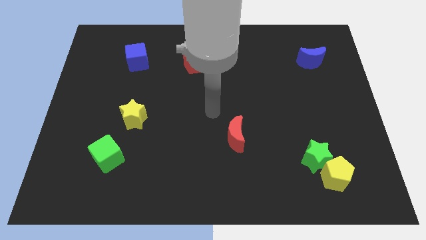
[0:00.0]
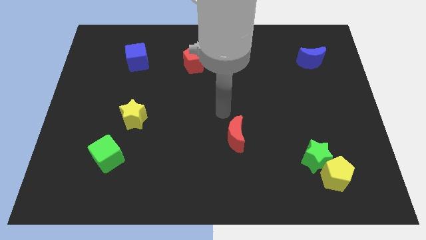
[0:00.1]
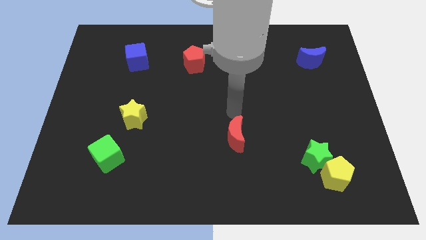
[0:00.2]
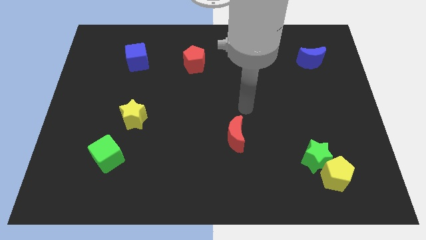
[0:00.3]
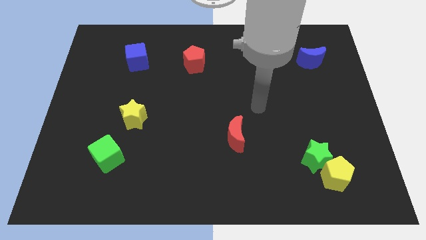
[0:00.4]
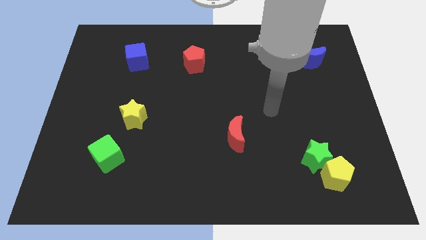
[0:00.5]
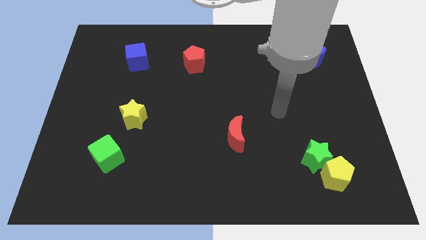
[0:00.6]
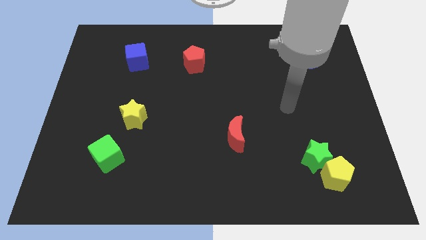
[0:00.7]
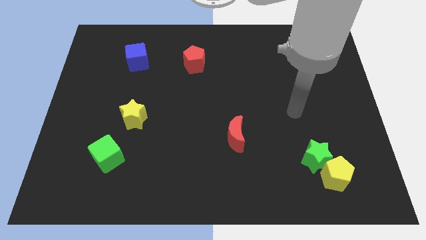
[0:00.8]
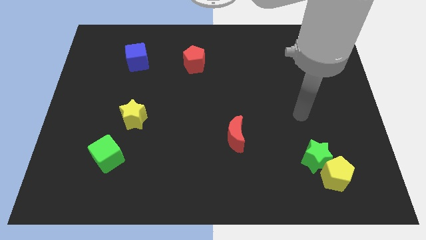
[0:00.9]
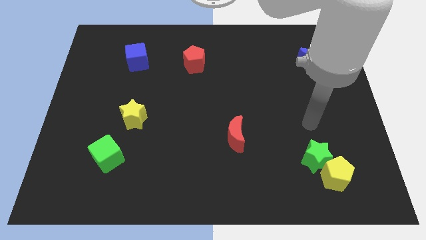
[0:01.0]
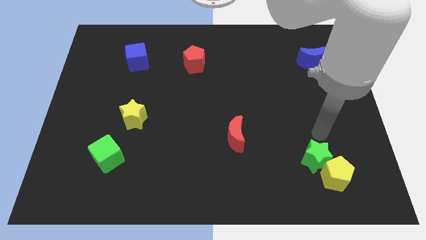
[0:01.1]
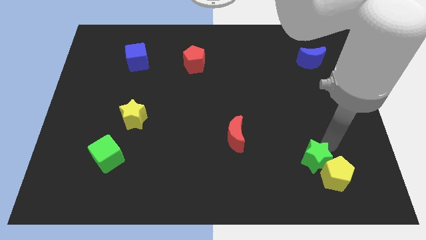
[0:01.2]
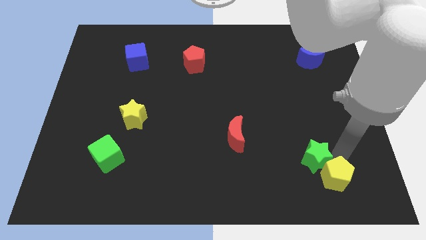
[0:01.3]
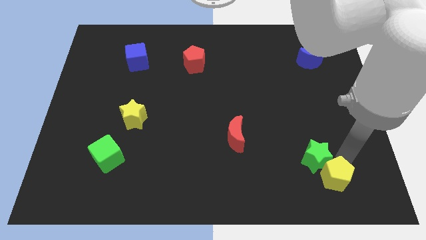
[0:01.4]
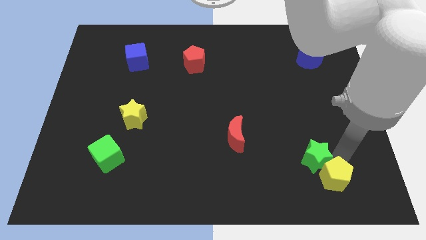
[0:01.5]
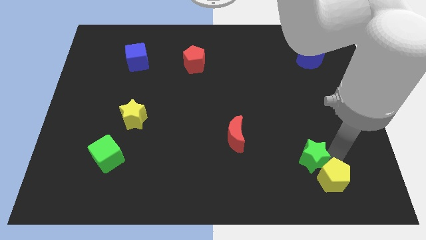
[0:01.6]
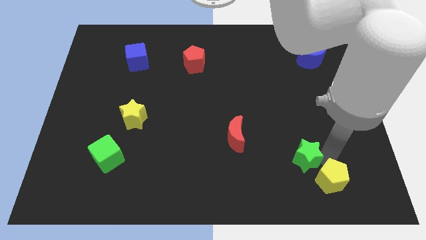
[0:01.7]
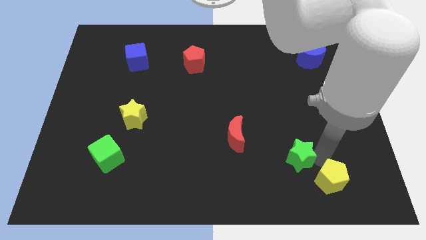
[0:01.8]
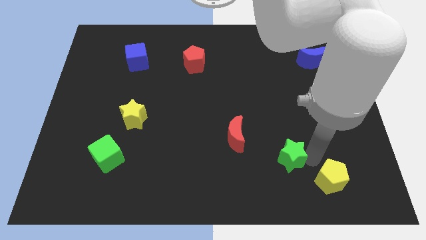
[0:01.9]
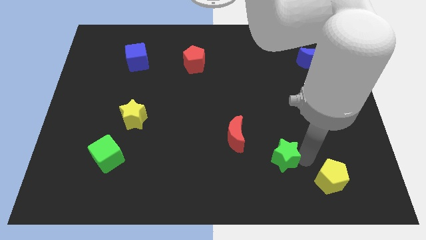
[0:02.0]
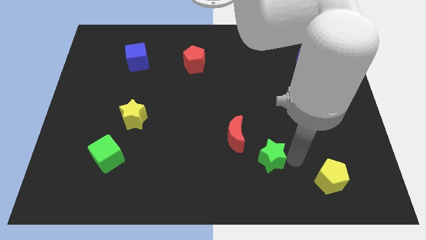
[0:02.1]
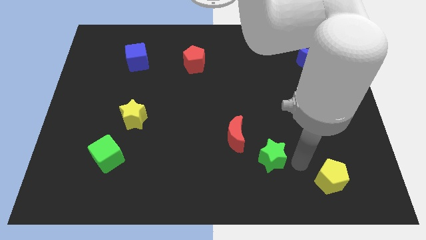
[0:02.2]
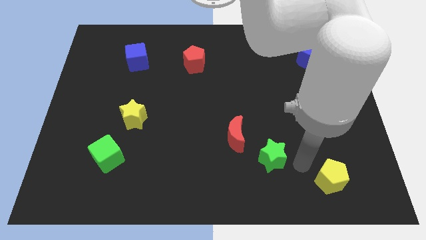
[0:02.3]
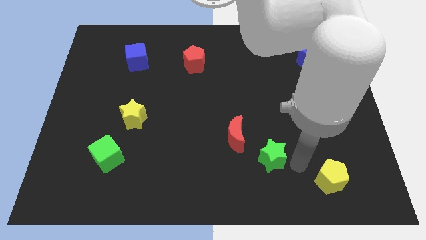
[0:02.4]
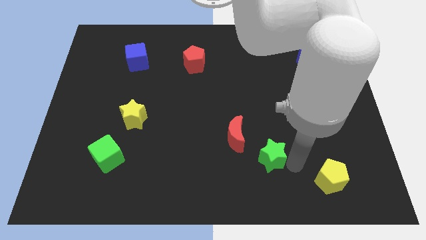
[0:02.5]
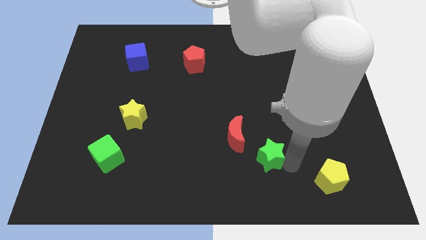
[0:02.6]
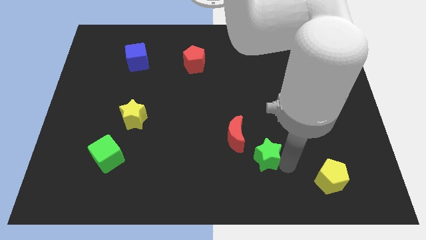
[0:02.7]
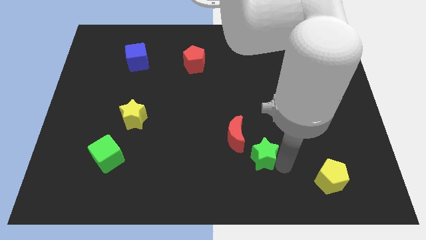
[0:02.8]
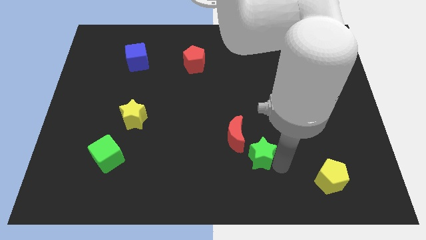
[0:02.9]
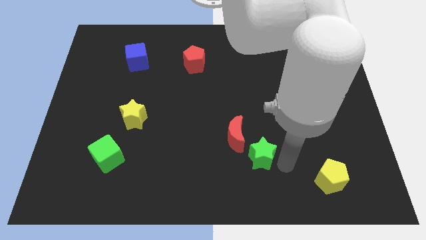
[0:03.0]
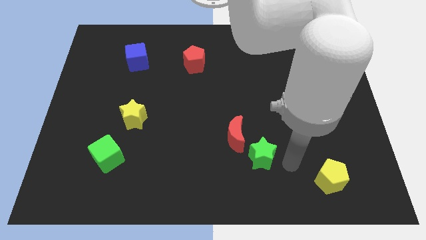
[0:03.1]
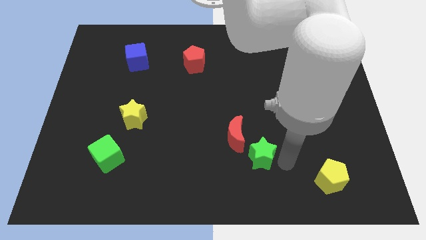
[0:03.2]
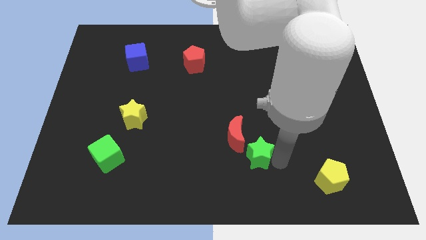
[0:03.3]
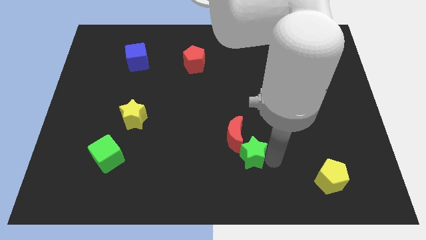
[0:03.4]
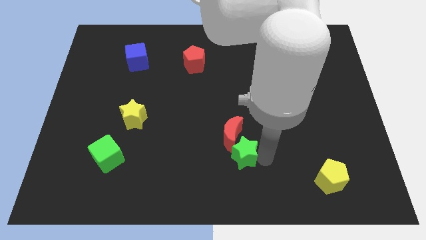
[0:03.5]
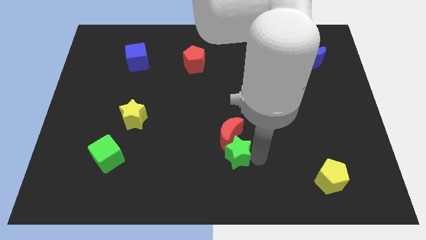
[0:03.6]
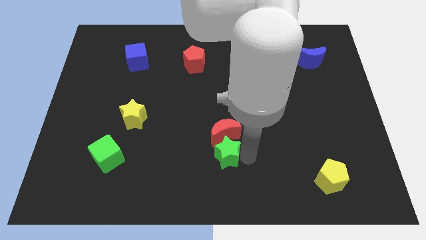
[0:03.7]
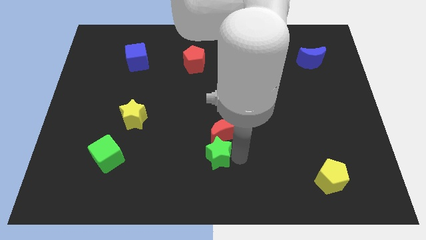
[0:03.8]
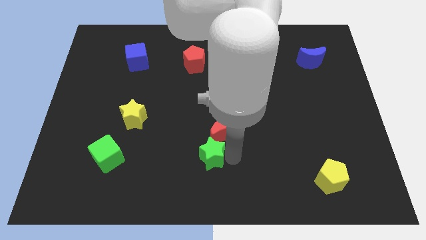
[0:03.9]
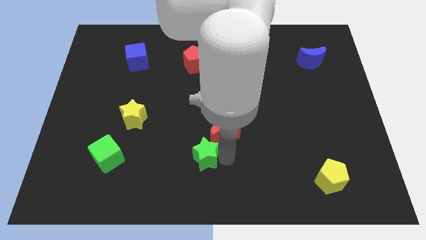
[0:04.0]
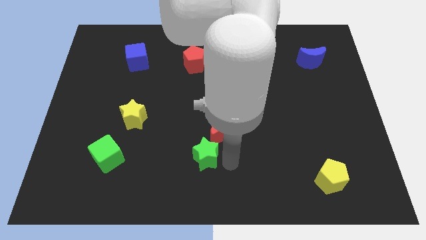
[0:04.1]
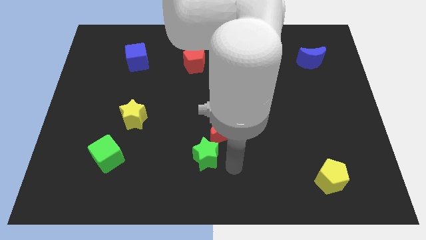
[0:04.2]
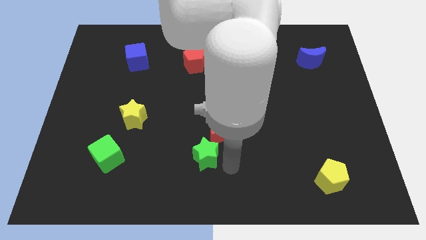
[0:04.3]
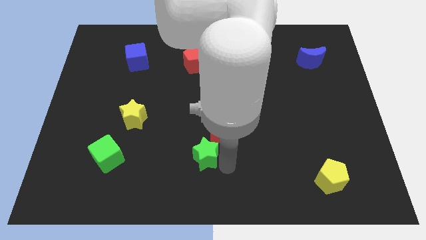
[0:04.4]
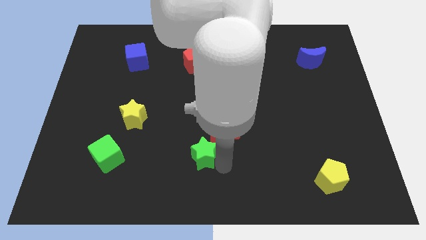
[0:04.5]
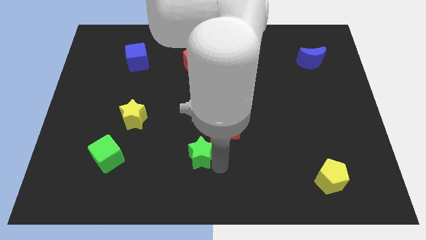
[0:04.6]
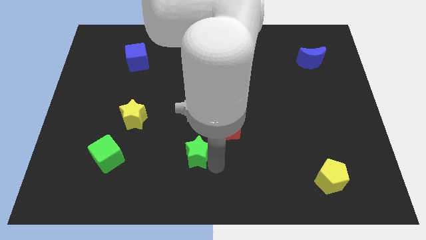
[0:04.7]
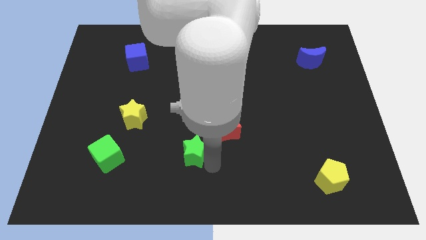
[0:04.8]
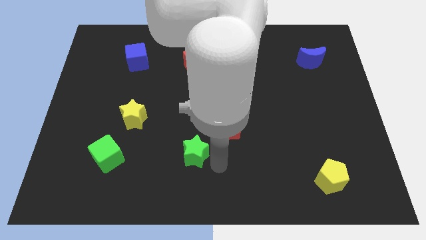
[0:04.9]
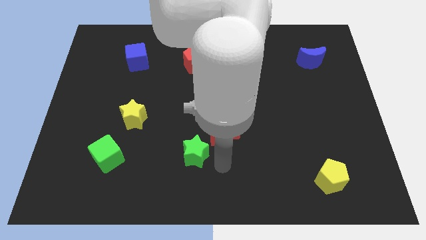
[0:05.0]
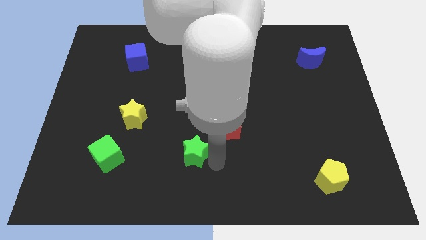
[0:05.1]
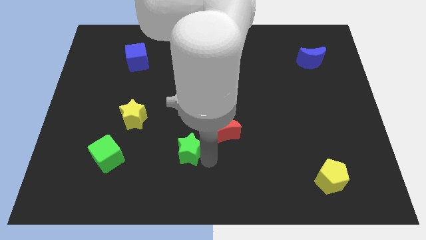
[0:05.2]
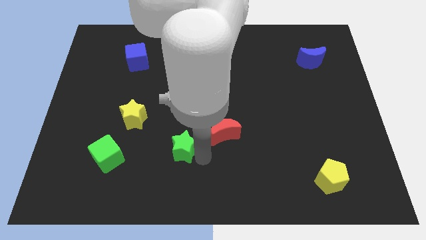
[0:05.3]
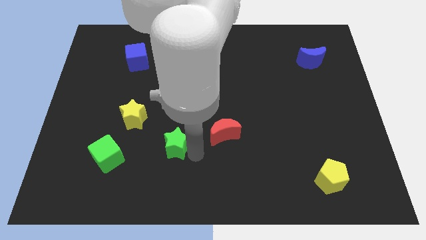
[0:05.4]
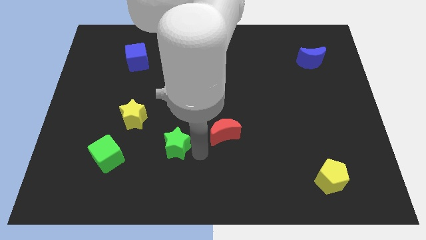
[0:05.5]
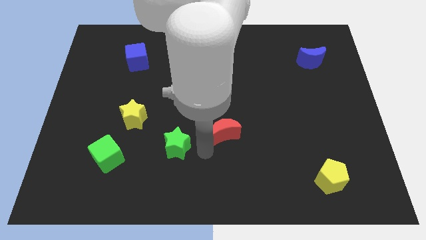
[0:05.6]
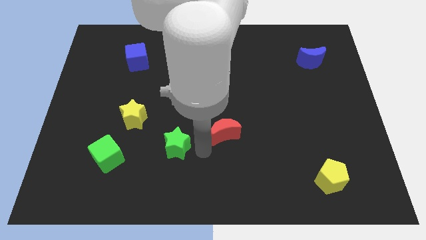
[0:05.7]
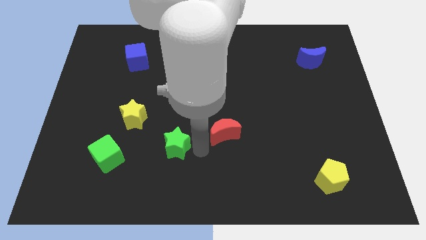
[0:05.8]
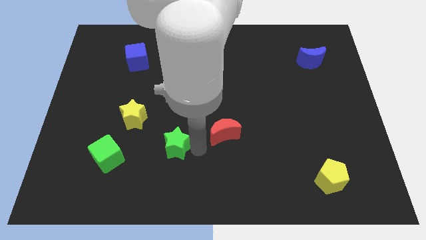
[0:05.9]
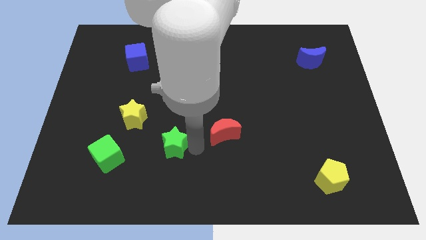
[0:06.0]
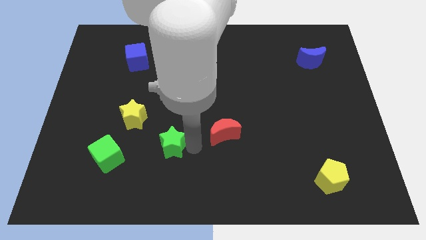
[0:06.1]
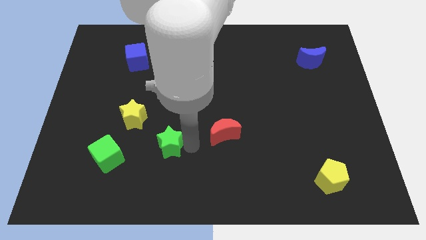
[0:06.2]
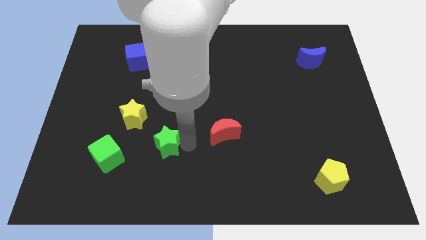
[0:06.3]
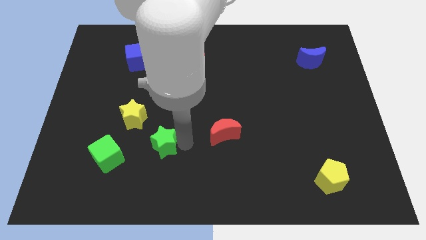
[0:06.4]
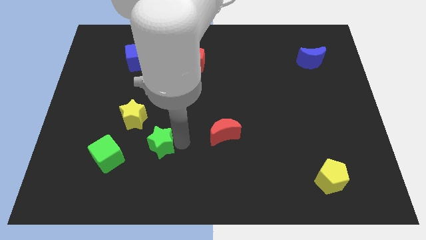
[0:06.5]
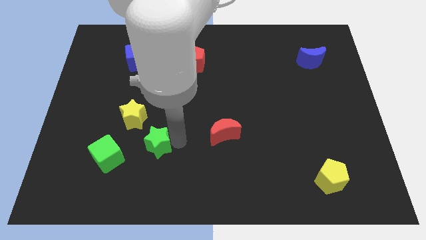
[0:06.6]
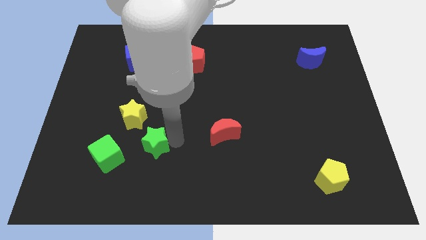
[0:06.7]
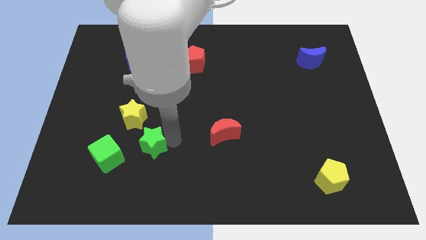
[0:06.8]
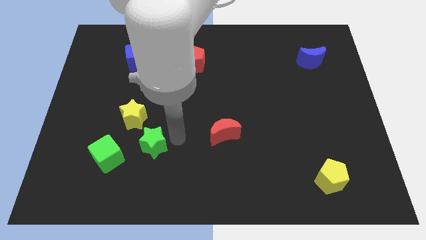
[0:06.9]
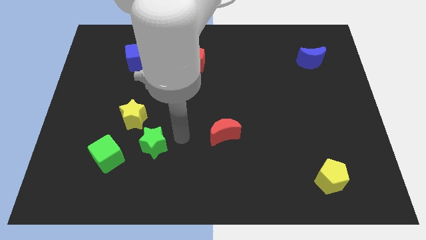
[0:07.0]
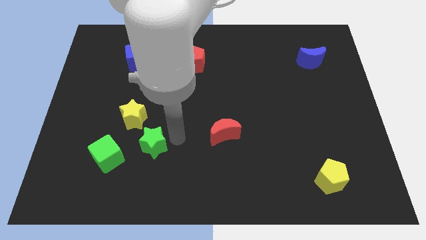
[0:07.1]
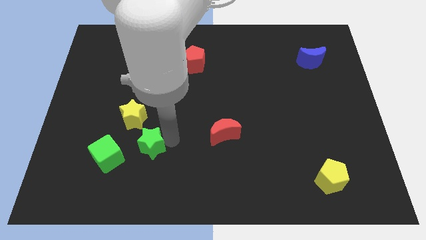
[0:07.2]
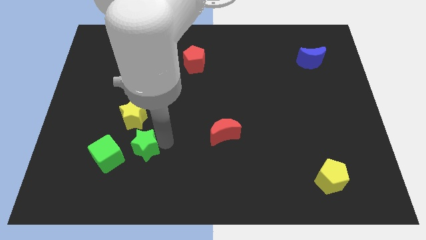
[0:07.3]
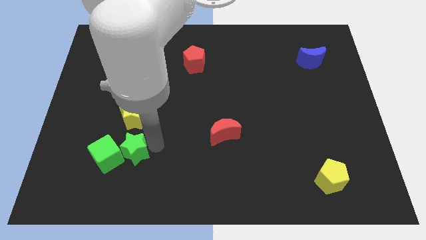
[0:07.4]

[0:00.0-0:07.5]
slide the green star to the green cube
